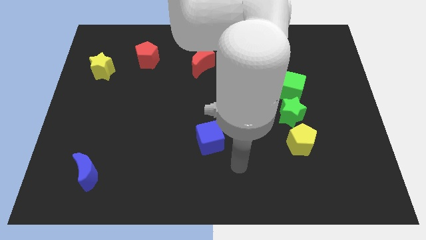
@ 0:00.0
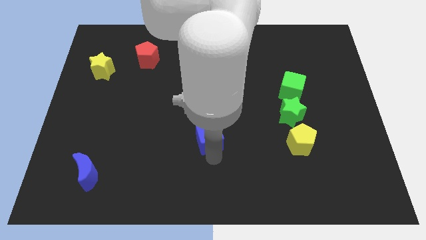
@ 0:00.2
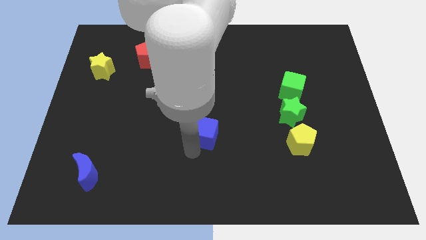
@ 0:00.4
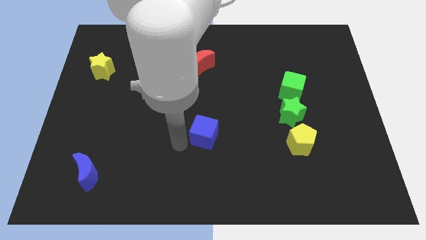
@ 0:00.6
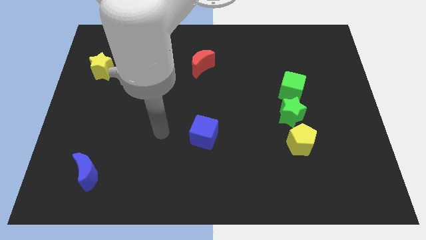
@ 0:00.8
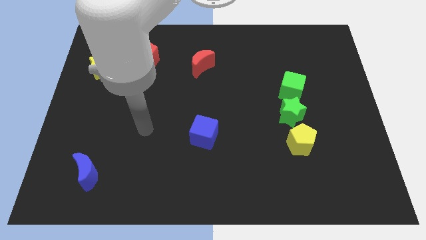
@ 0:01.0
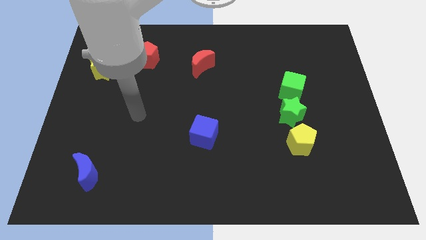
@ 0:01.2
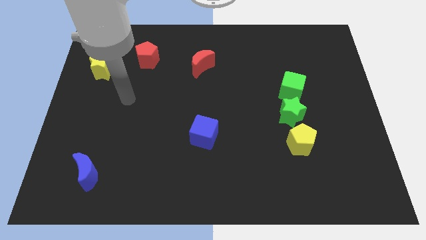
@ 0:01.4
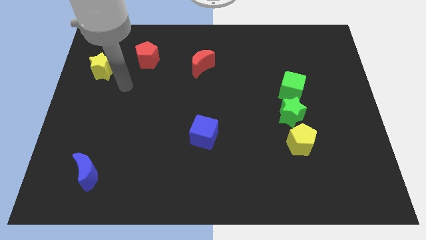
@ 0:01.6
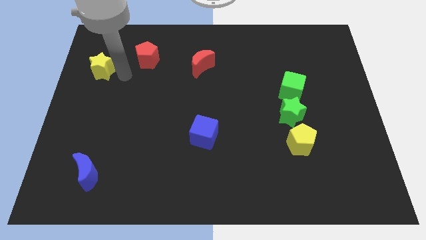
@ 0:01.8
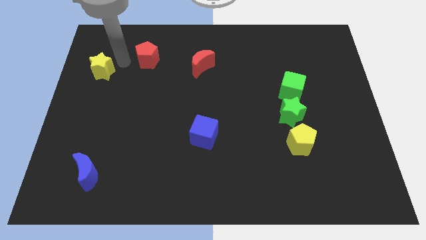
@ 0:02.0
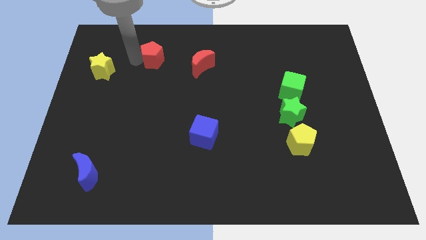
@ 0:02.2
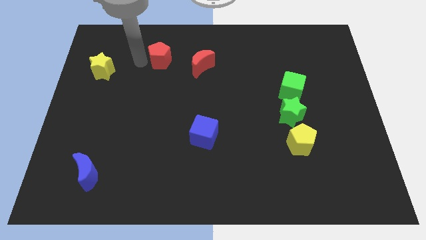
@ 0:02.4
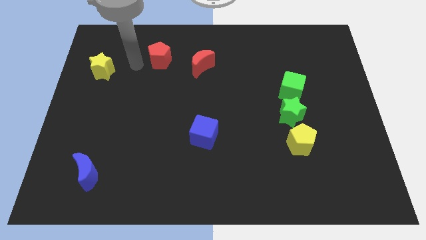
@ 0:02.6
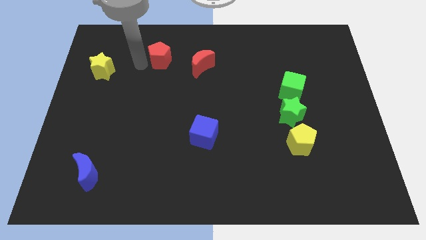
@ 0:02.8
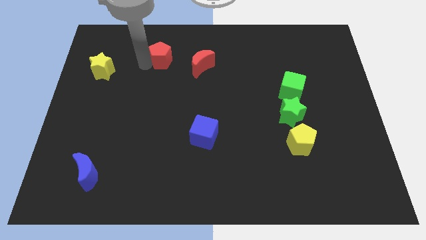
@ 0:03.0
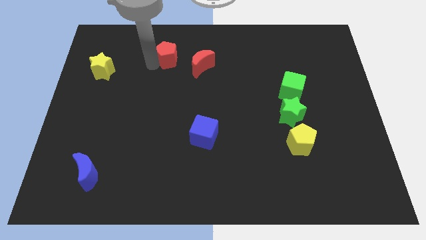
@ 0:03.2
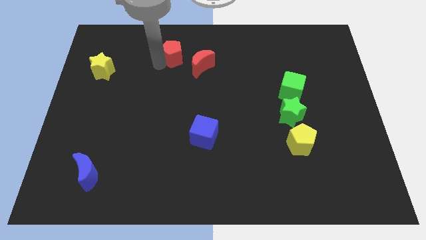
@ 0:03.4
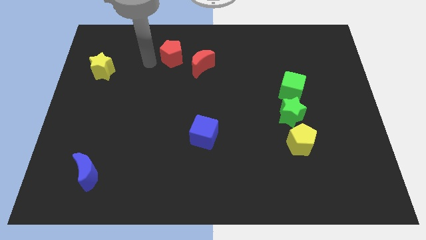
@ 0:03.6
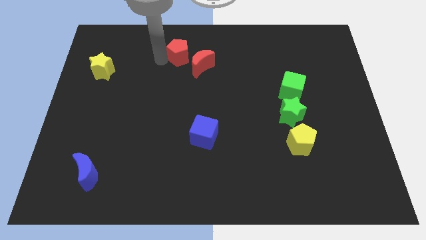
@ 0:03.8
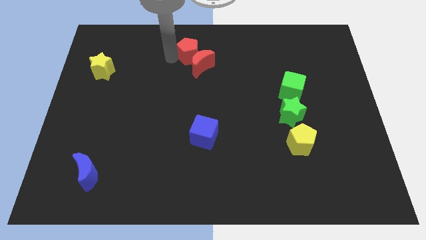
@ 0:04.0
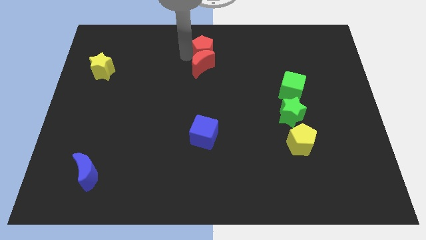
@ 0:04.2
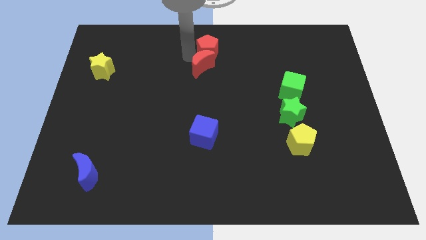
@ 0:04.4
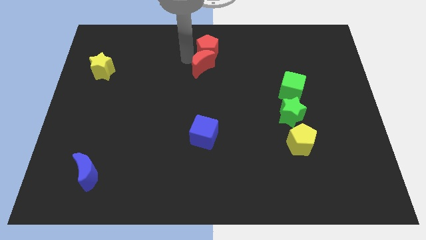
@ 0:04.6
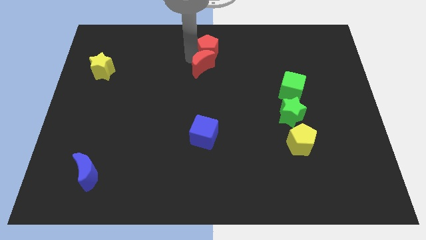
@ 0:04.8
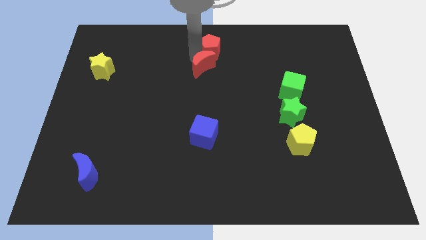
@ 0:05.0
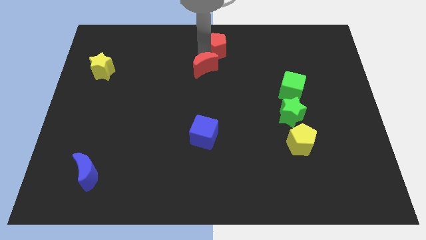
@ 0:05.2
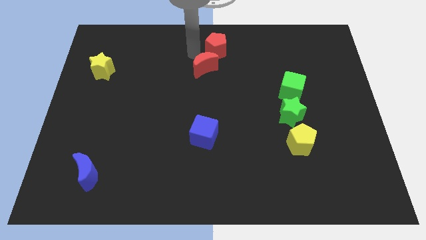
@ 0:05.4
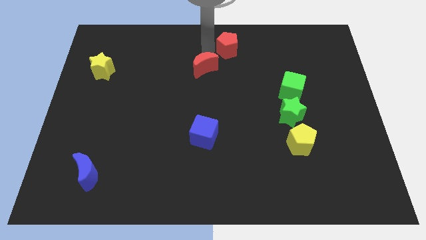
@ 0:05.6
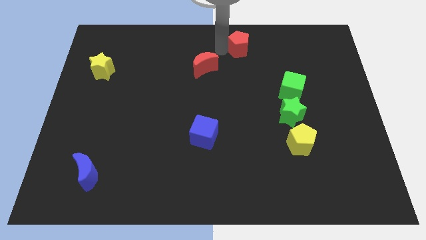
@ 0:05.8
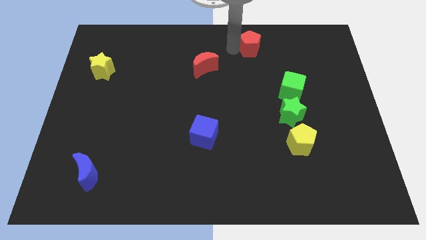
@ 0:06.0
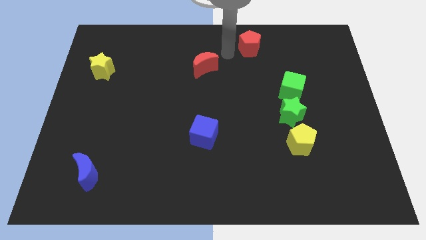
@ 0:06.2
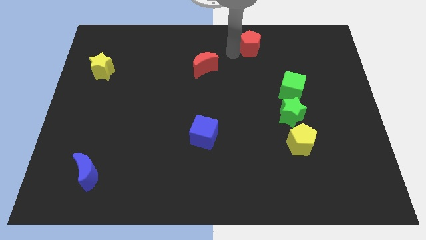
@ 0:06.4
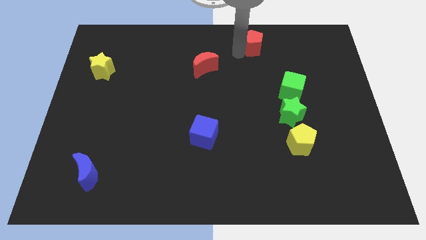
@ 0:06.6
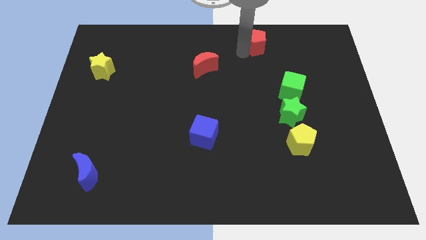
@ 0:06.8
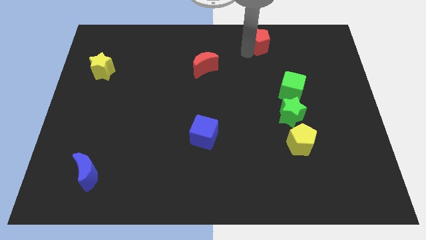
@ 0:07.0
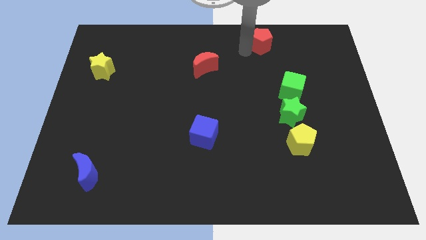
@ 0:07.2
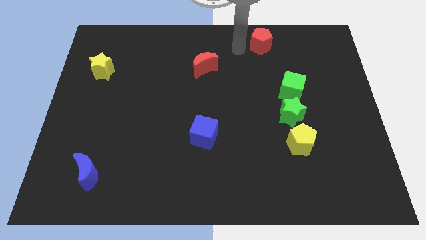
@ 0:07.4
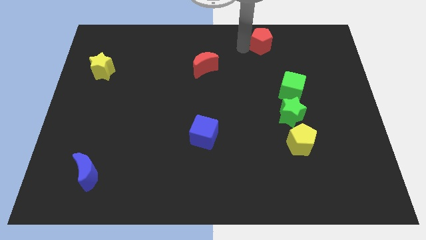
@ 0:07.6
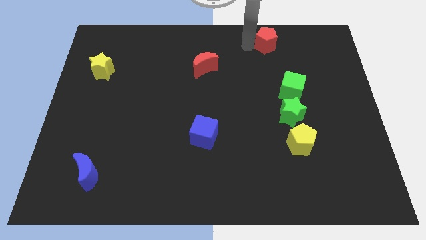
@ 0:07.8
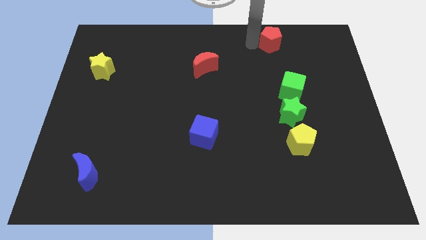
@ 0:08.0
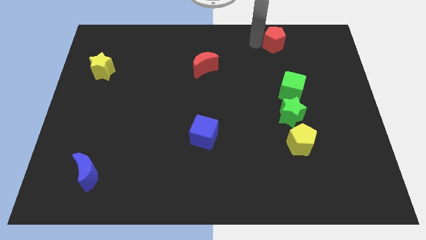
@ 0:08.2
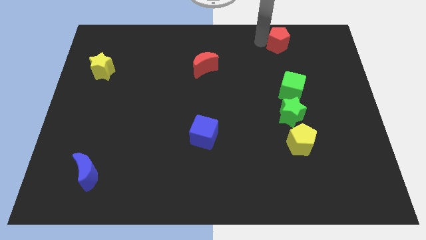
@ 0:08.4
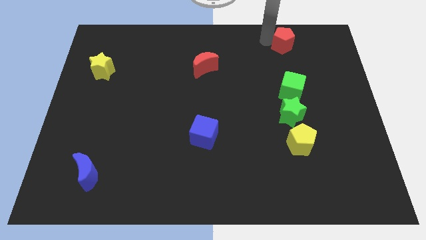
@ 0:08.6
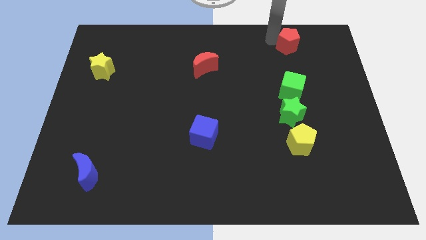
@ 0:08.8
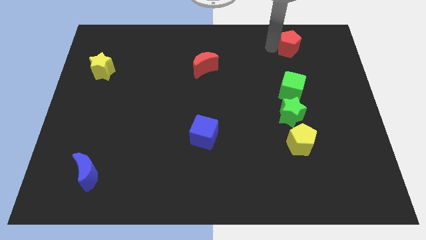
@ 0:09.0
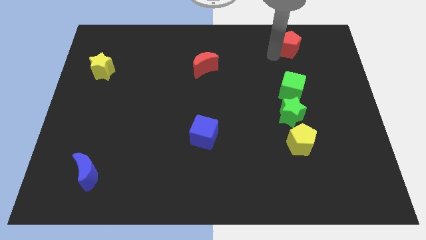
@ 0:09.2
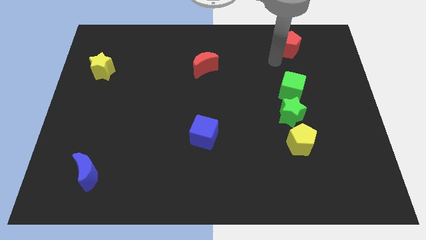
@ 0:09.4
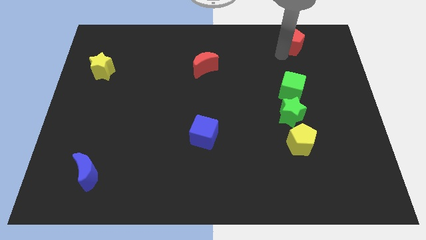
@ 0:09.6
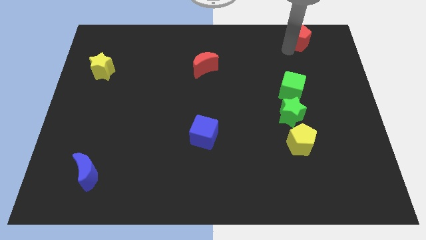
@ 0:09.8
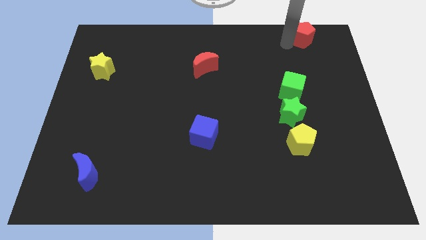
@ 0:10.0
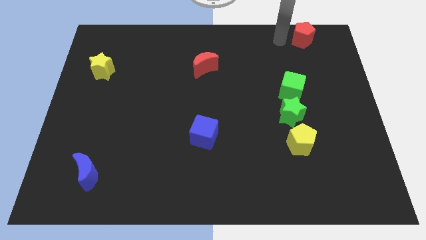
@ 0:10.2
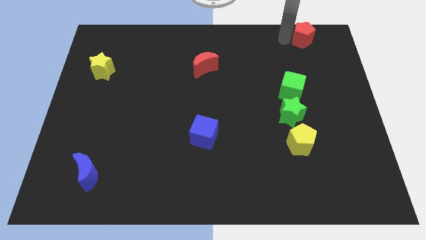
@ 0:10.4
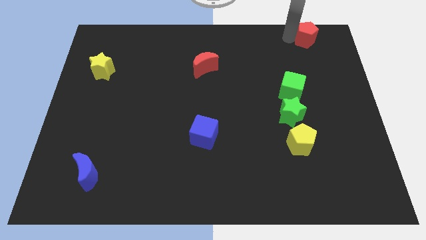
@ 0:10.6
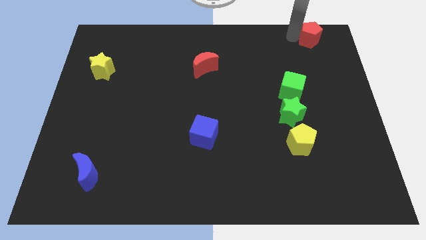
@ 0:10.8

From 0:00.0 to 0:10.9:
put the red pentagon to the top right of the board

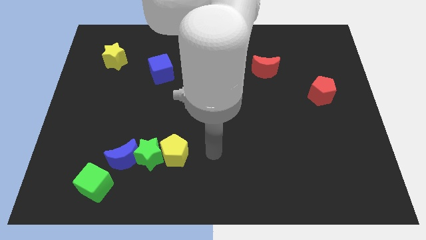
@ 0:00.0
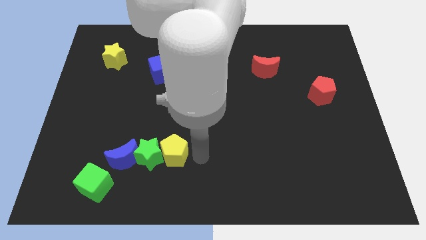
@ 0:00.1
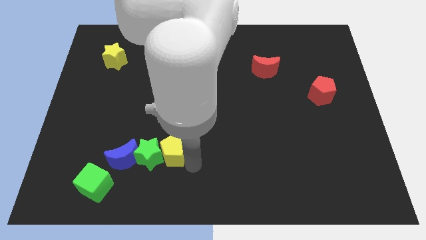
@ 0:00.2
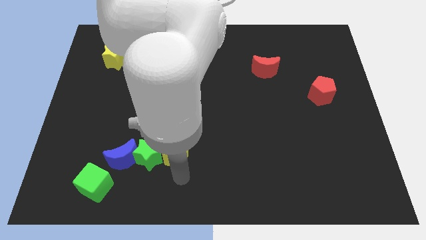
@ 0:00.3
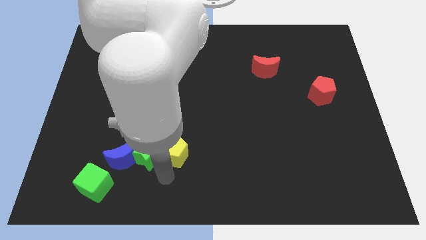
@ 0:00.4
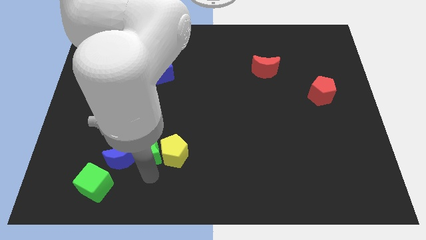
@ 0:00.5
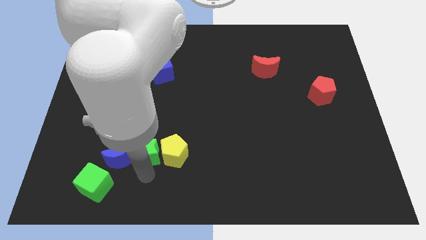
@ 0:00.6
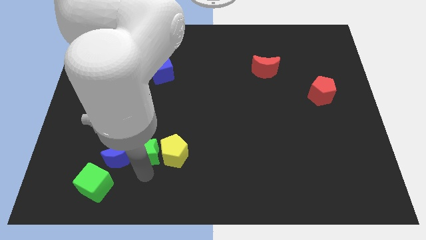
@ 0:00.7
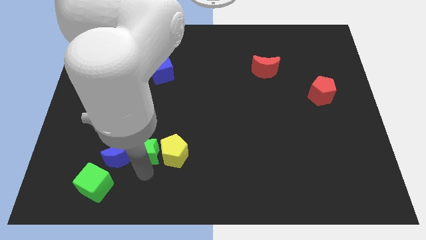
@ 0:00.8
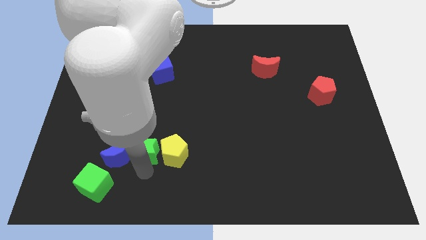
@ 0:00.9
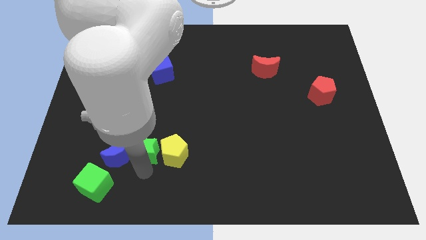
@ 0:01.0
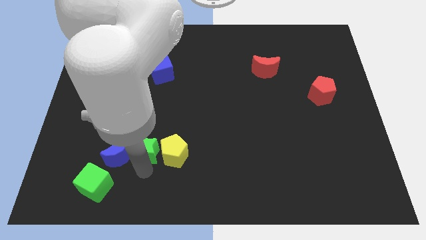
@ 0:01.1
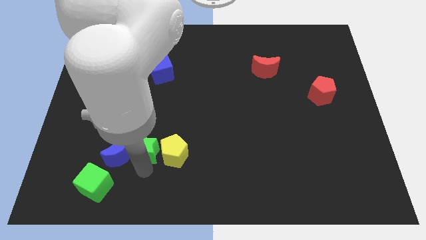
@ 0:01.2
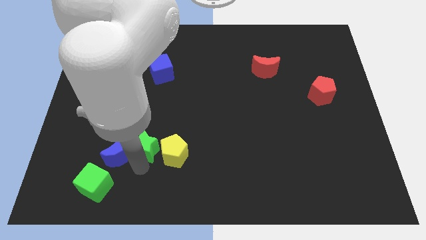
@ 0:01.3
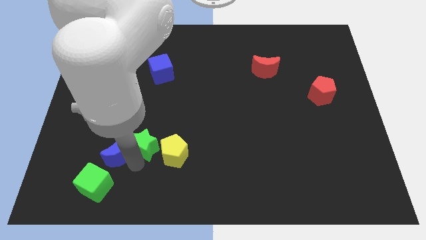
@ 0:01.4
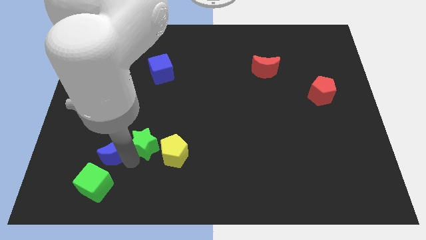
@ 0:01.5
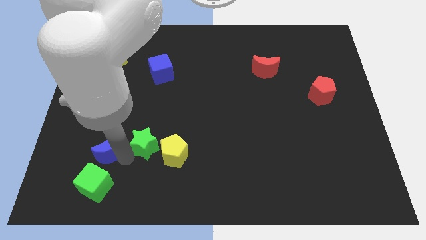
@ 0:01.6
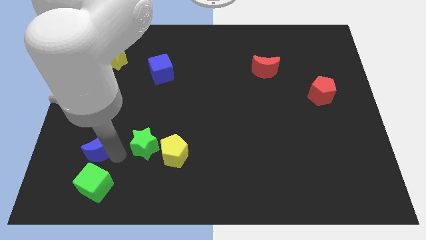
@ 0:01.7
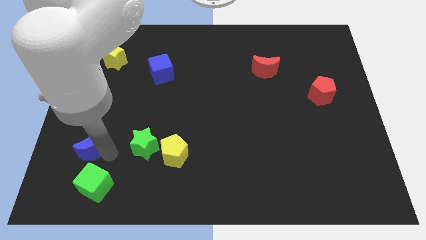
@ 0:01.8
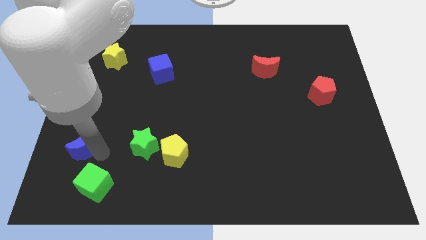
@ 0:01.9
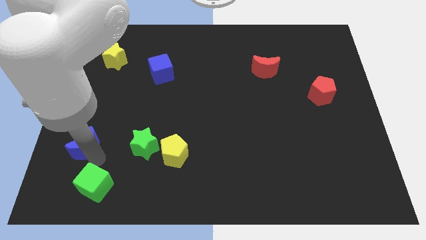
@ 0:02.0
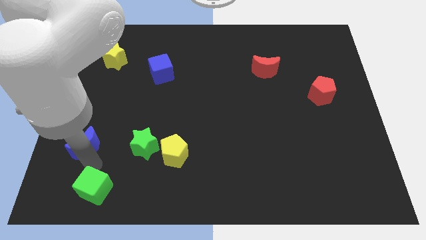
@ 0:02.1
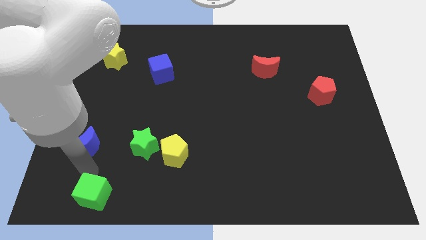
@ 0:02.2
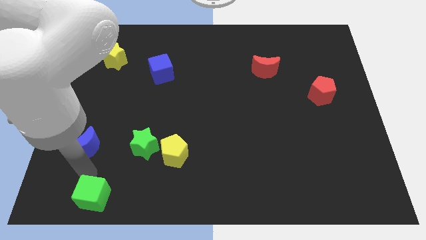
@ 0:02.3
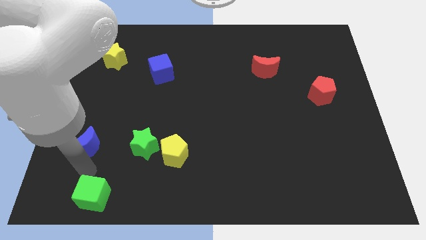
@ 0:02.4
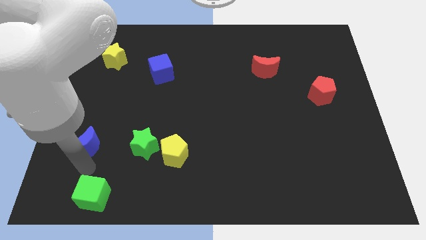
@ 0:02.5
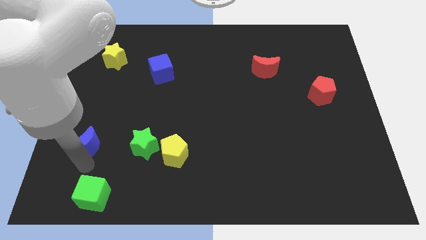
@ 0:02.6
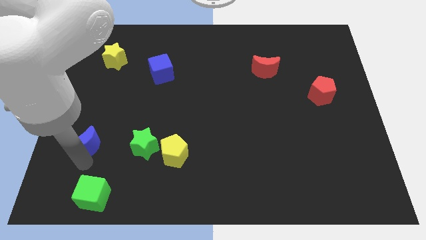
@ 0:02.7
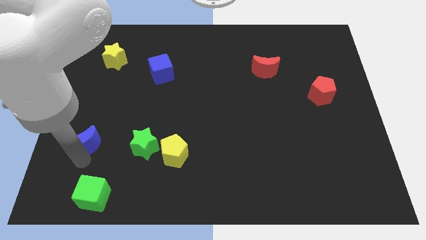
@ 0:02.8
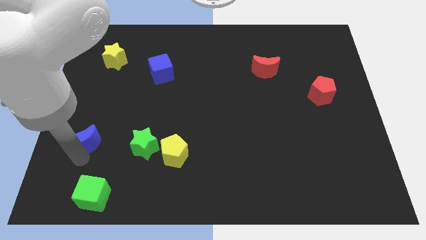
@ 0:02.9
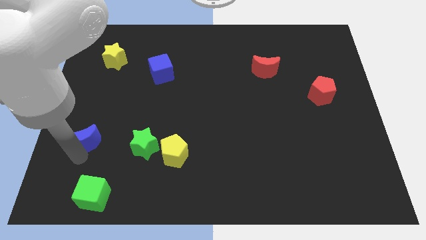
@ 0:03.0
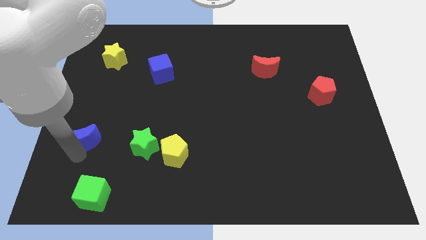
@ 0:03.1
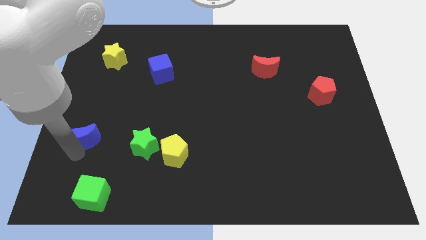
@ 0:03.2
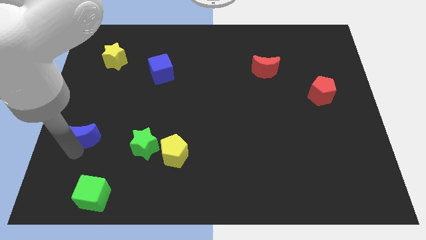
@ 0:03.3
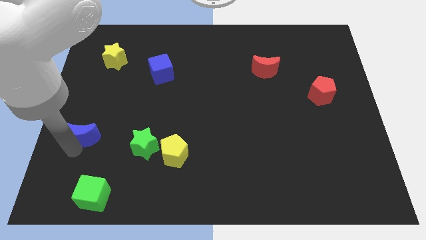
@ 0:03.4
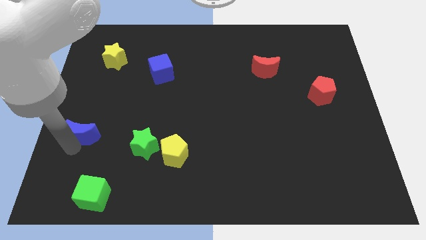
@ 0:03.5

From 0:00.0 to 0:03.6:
slide the blue moon to the left side
